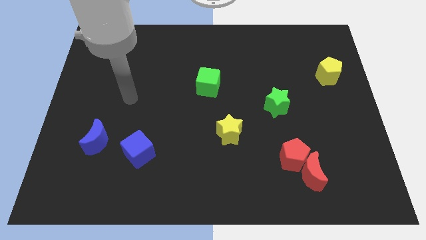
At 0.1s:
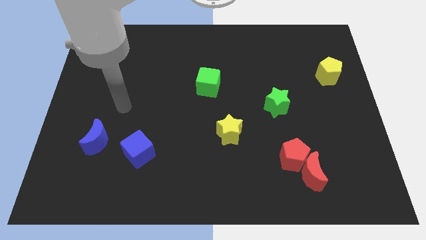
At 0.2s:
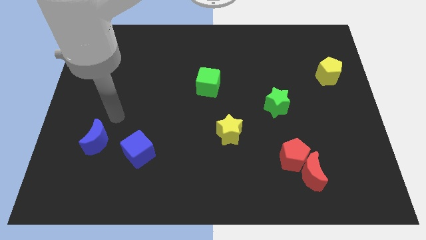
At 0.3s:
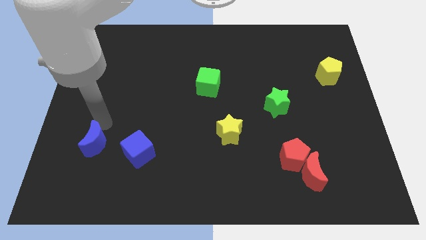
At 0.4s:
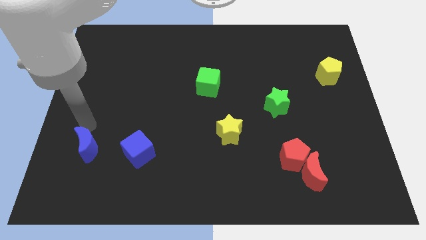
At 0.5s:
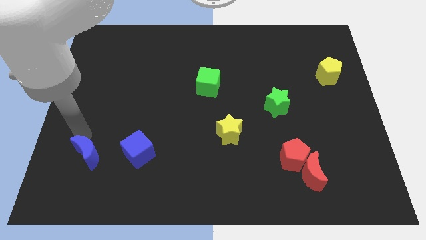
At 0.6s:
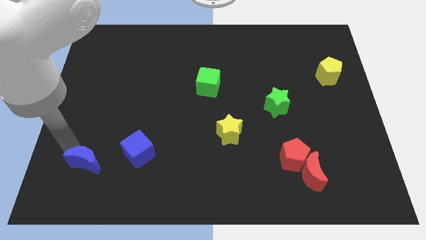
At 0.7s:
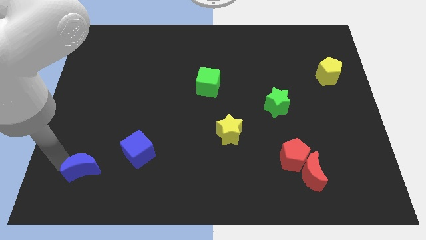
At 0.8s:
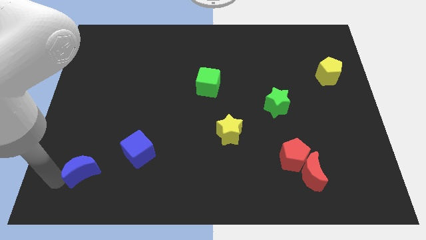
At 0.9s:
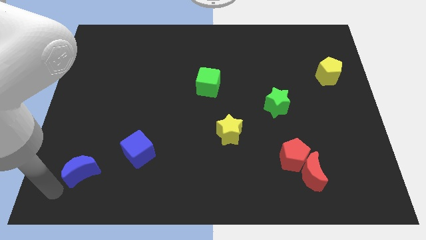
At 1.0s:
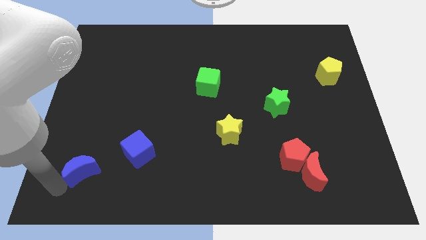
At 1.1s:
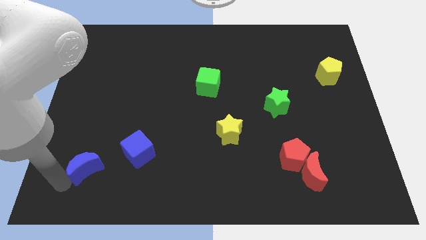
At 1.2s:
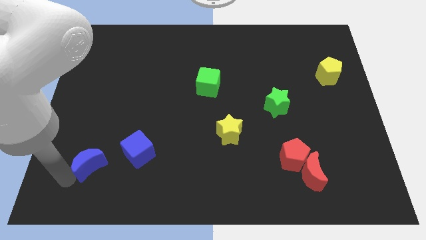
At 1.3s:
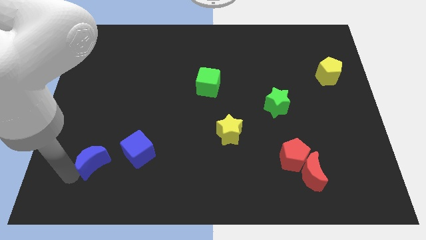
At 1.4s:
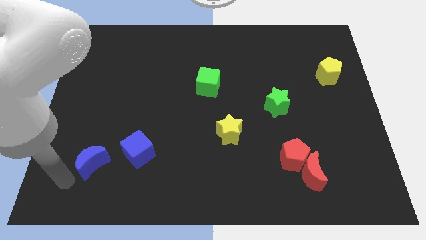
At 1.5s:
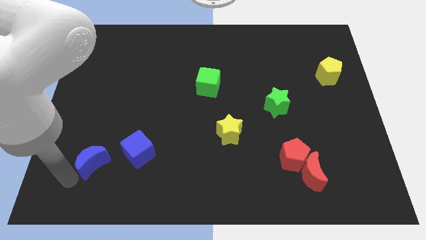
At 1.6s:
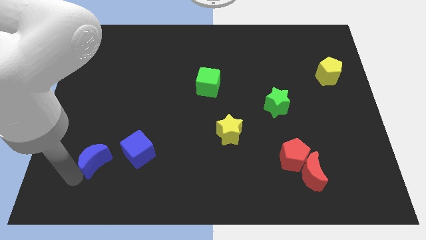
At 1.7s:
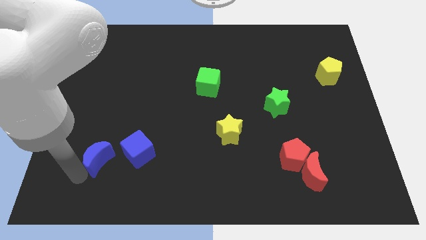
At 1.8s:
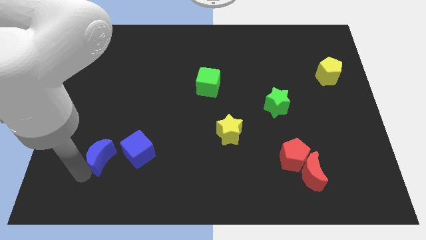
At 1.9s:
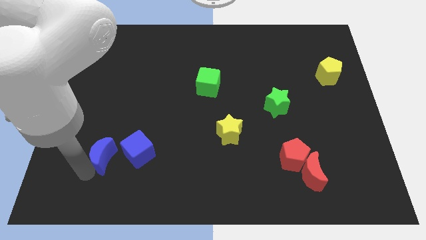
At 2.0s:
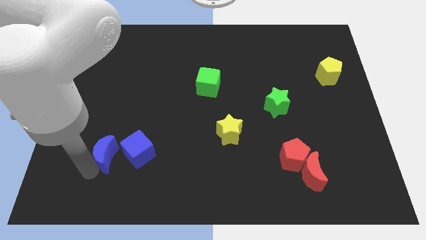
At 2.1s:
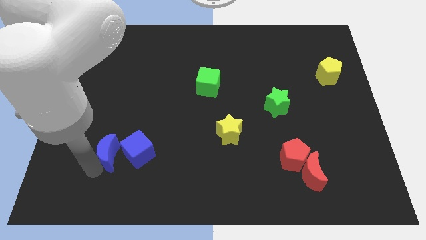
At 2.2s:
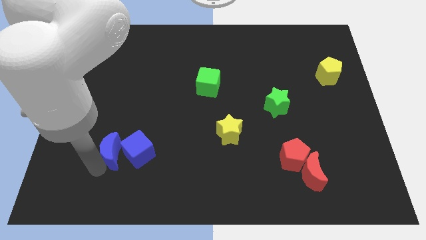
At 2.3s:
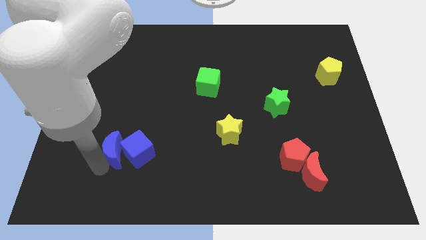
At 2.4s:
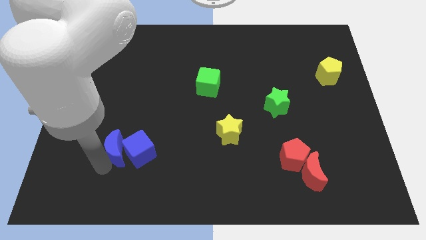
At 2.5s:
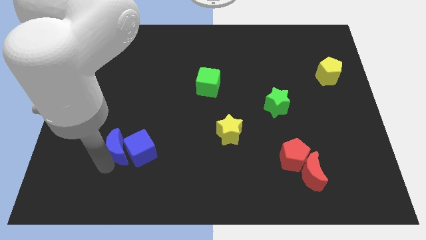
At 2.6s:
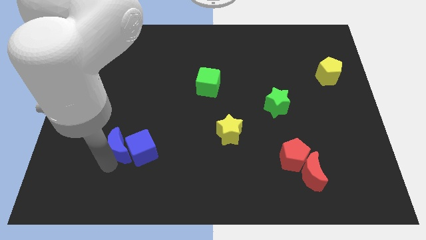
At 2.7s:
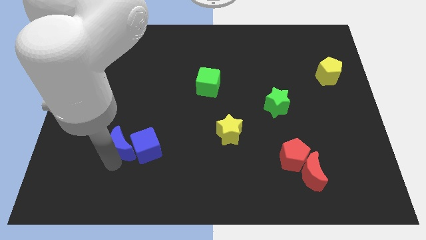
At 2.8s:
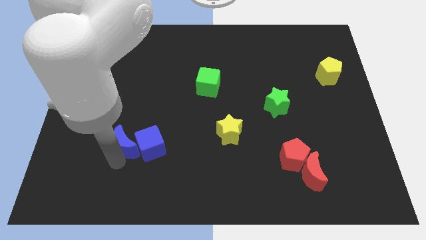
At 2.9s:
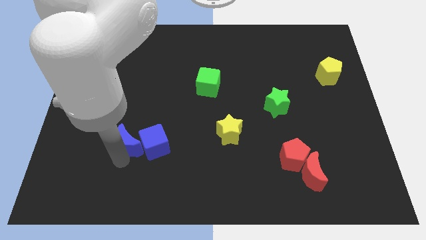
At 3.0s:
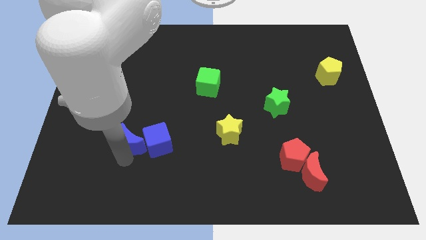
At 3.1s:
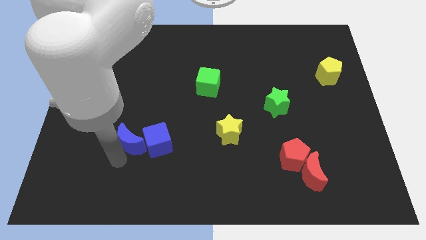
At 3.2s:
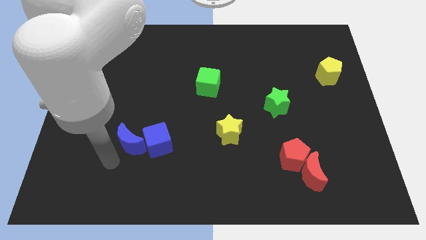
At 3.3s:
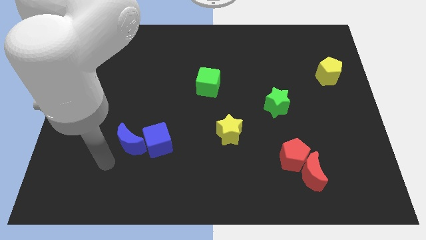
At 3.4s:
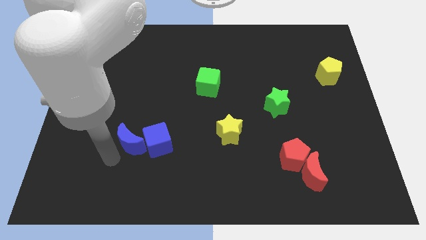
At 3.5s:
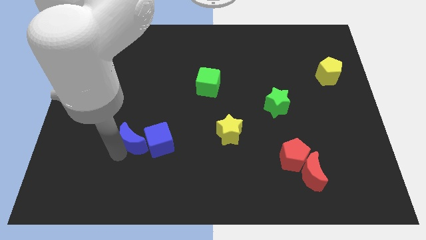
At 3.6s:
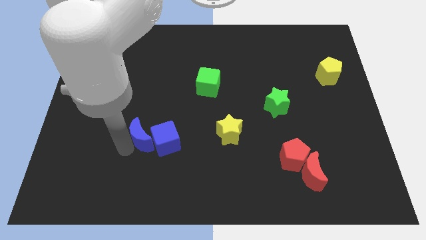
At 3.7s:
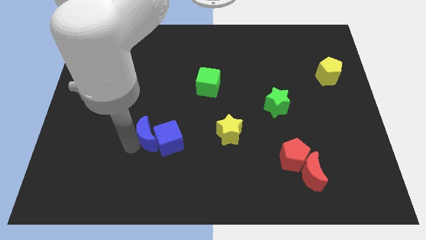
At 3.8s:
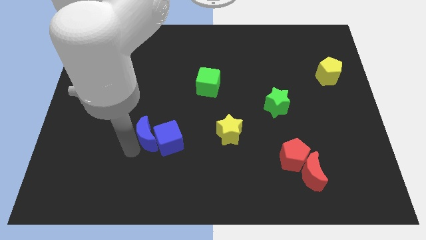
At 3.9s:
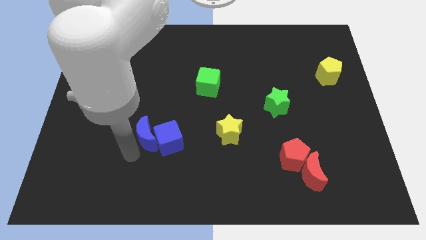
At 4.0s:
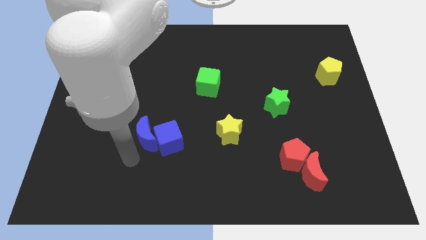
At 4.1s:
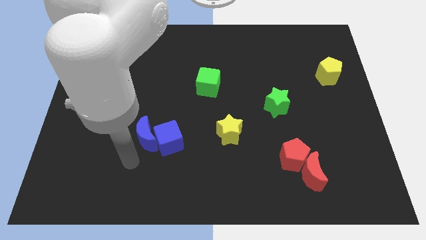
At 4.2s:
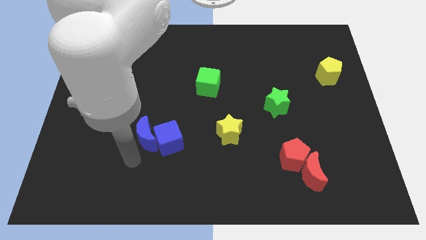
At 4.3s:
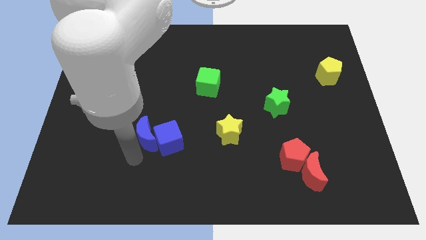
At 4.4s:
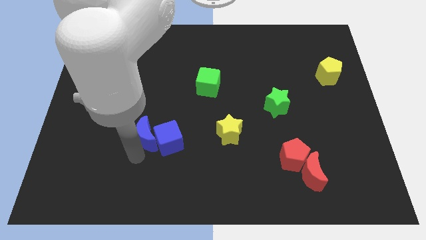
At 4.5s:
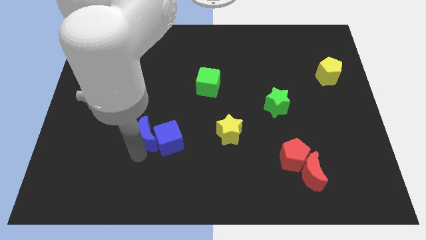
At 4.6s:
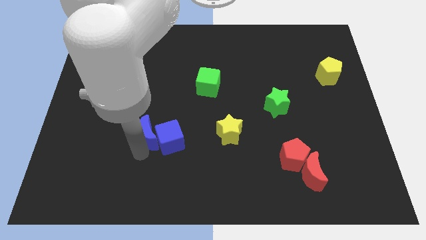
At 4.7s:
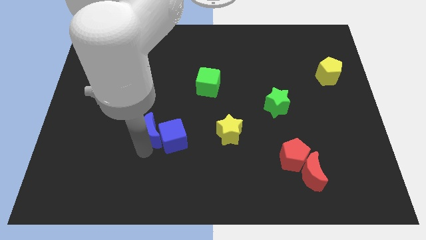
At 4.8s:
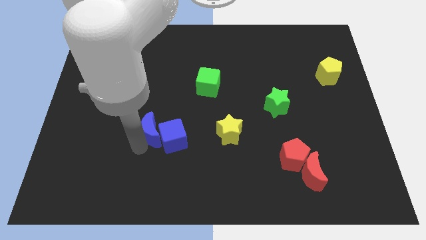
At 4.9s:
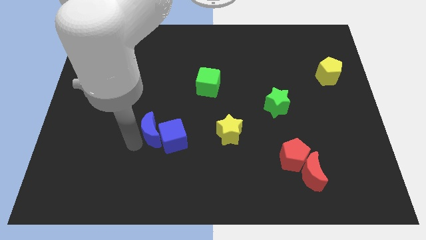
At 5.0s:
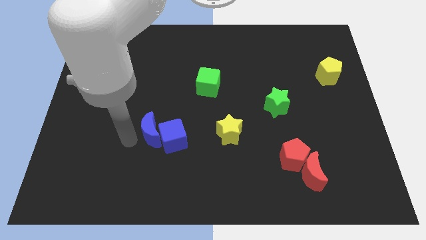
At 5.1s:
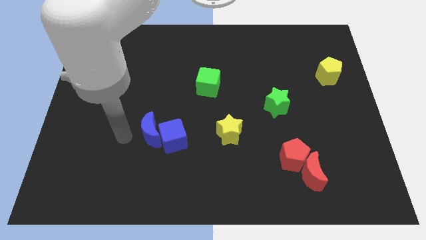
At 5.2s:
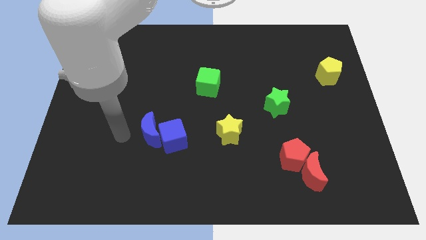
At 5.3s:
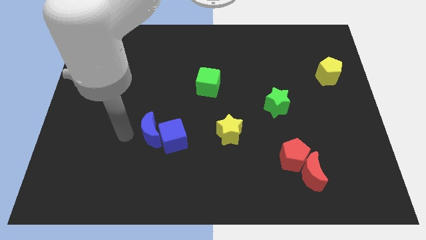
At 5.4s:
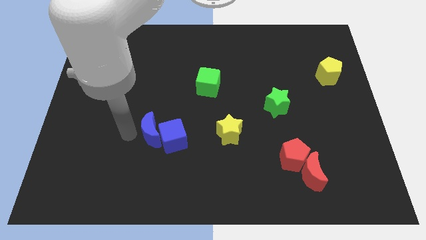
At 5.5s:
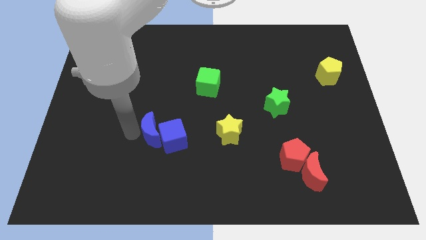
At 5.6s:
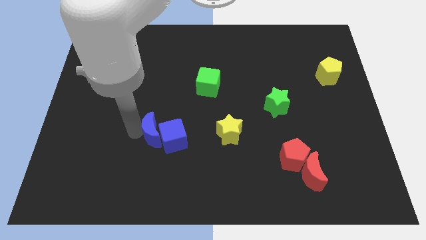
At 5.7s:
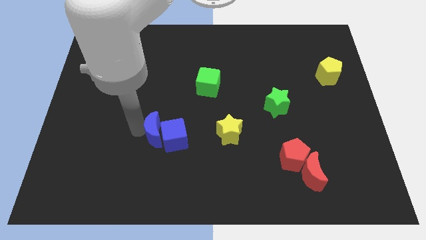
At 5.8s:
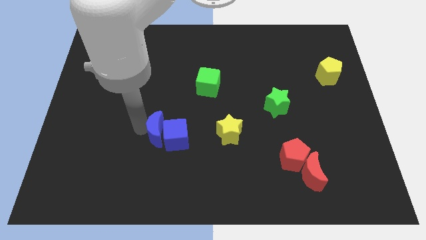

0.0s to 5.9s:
slide the blue moon left of the yellow star

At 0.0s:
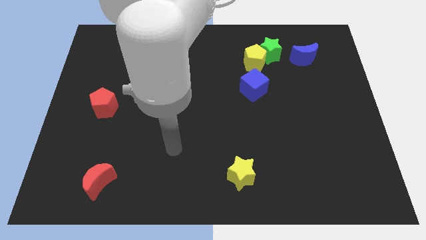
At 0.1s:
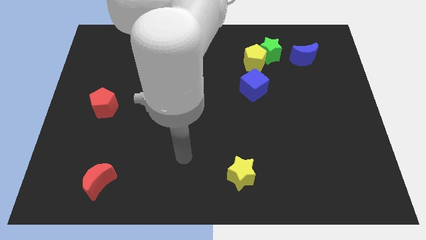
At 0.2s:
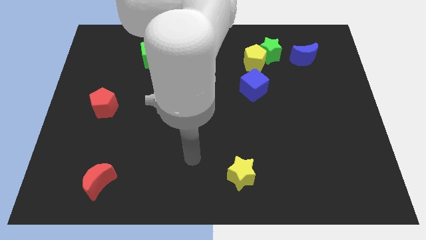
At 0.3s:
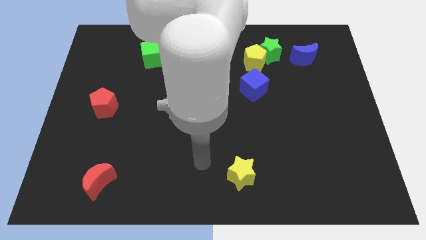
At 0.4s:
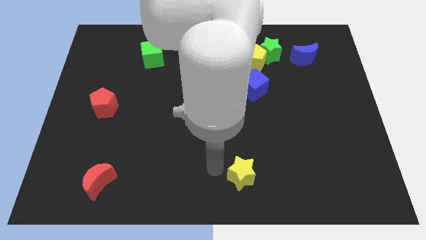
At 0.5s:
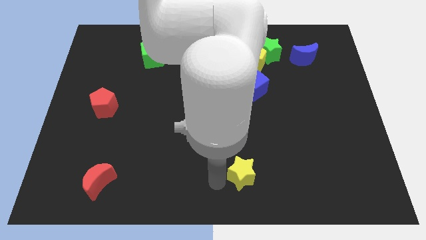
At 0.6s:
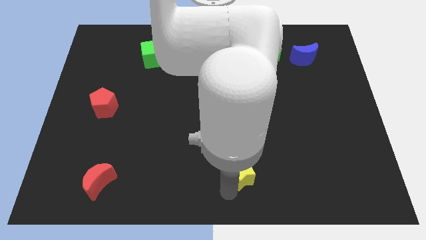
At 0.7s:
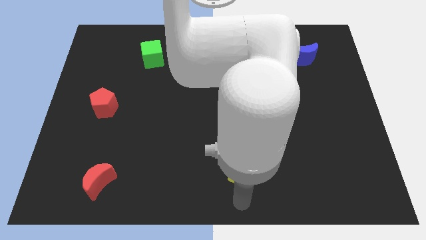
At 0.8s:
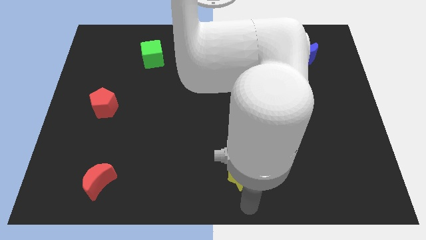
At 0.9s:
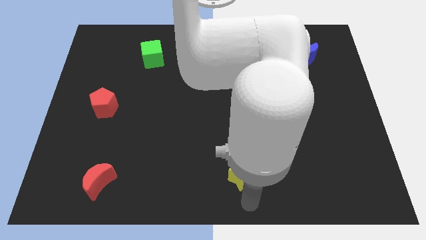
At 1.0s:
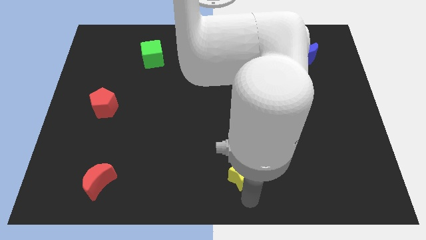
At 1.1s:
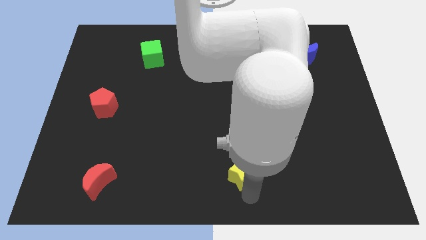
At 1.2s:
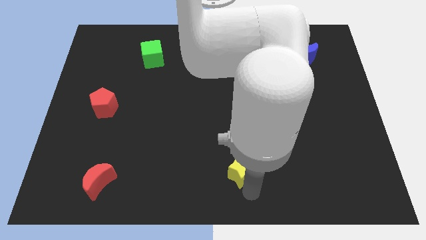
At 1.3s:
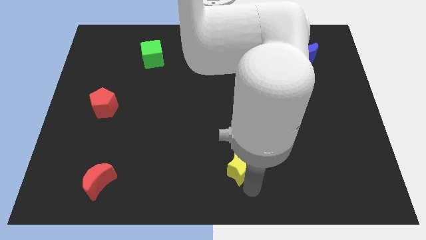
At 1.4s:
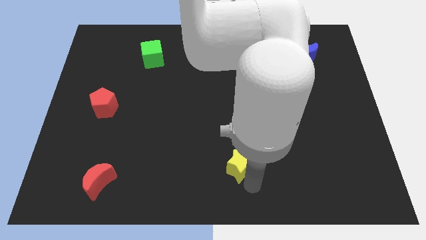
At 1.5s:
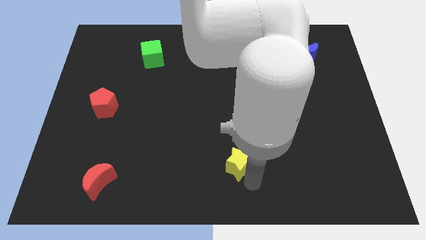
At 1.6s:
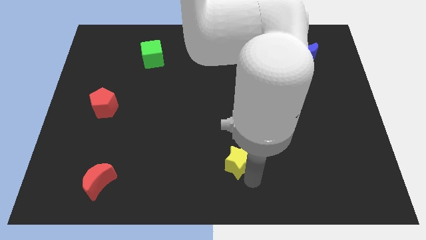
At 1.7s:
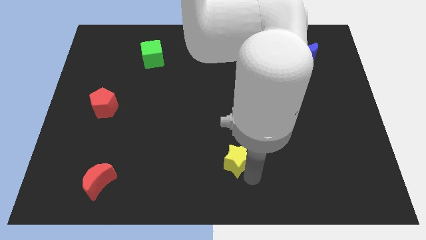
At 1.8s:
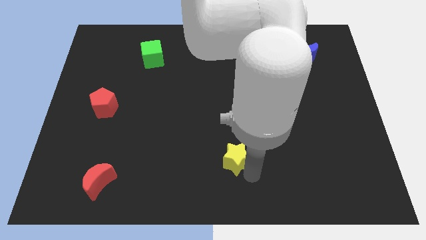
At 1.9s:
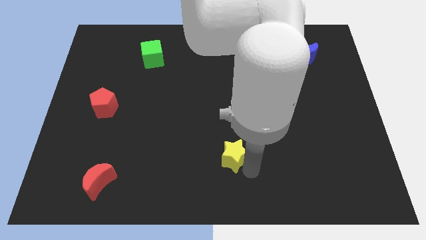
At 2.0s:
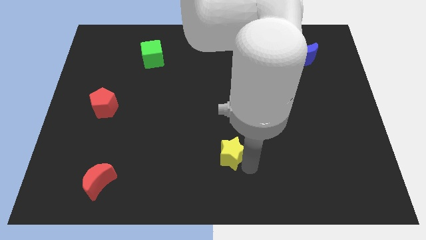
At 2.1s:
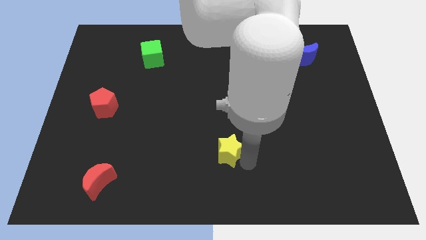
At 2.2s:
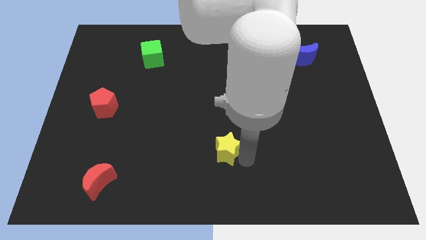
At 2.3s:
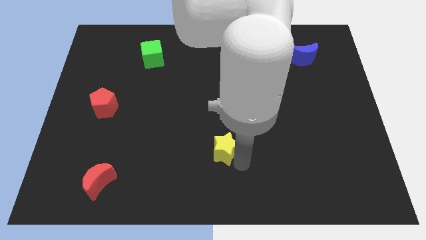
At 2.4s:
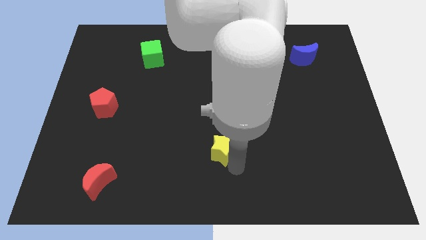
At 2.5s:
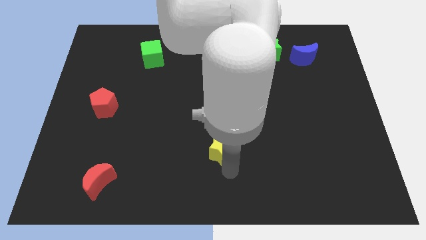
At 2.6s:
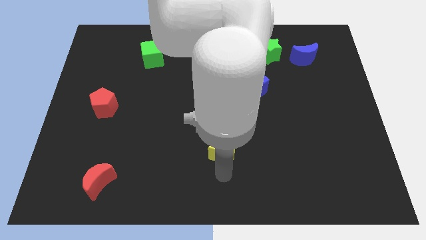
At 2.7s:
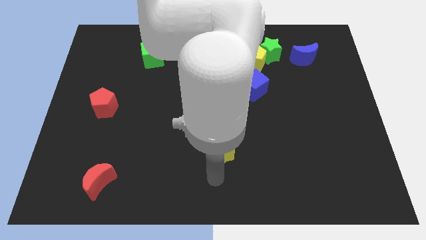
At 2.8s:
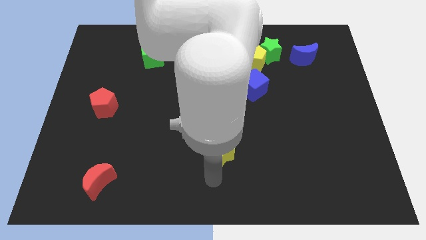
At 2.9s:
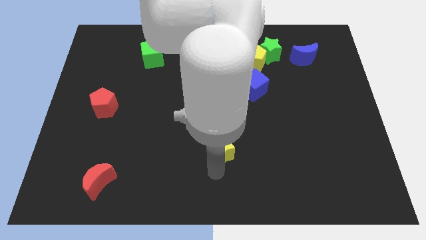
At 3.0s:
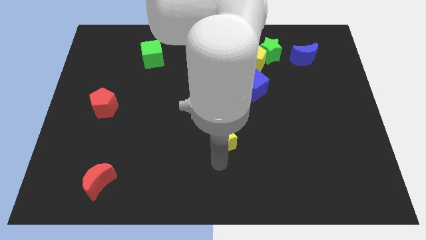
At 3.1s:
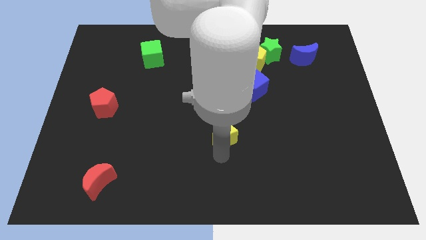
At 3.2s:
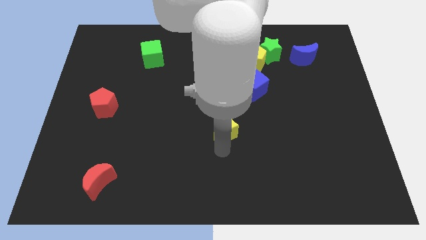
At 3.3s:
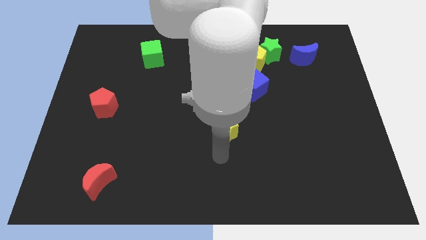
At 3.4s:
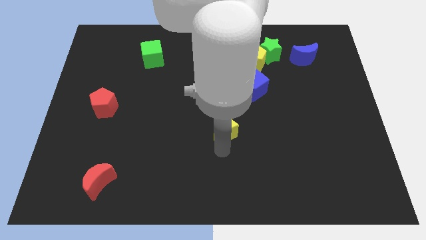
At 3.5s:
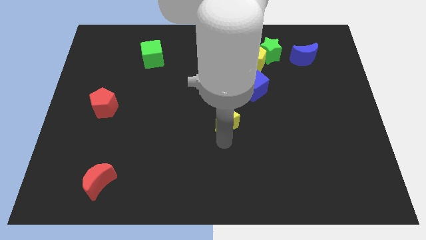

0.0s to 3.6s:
move the yellow star diagonally down and to the left of the blue cube
